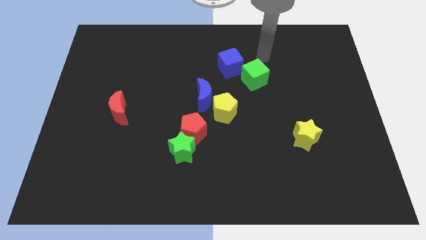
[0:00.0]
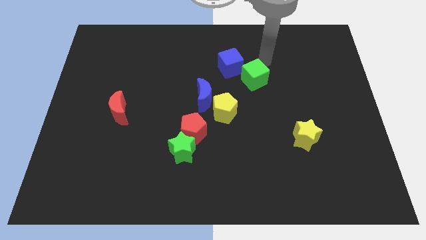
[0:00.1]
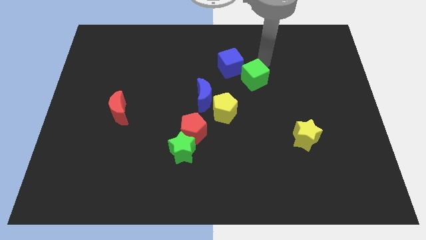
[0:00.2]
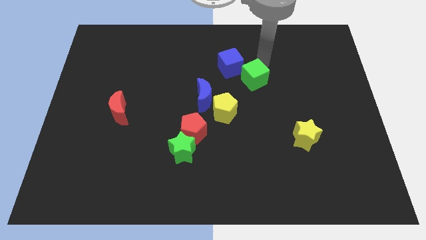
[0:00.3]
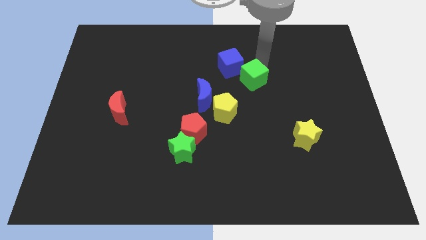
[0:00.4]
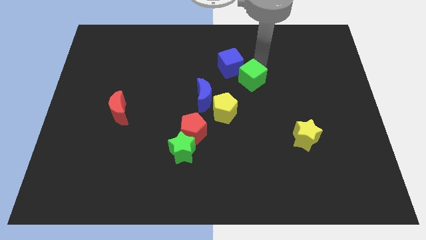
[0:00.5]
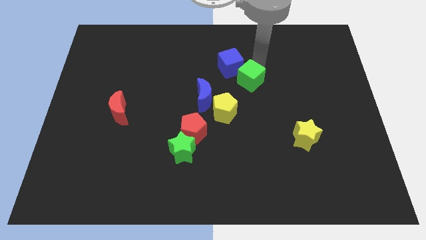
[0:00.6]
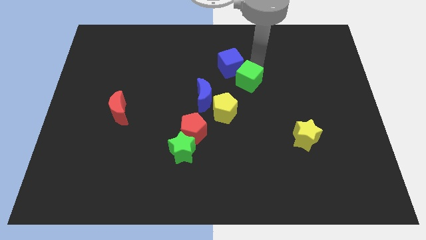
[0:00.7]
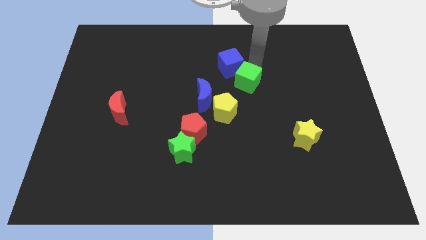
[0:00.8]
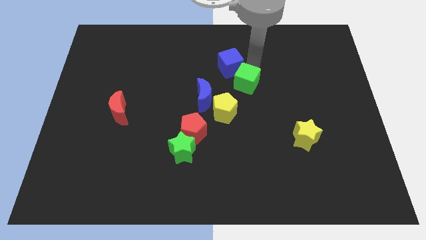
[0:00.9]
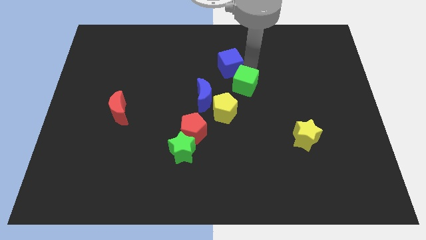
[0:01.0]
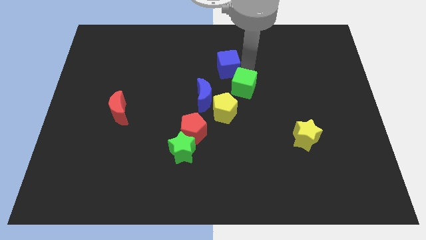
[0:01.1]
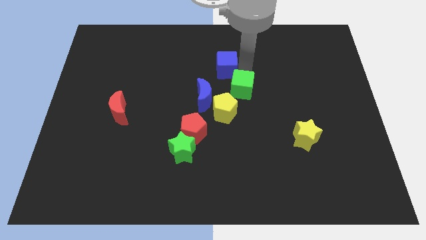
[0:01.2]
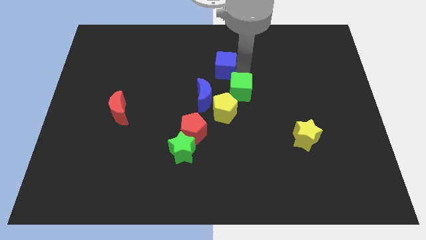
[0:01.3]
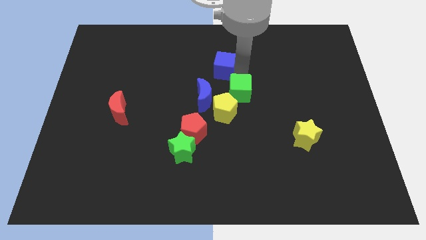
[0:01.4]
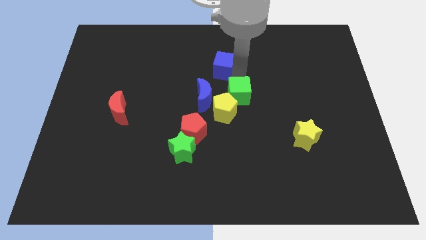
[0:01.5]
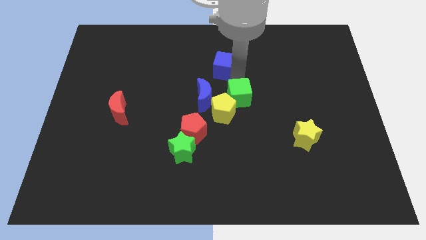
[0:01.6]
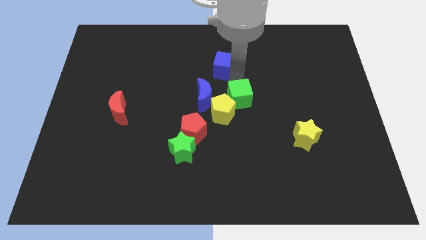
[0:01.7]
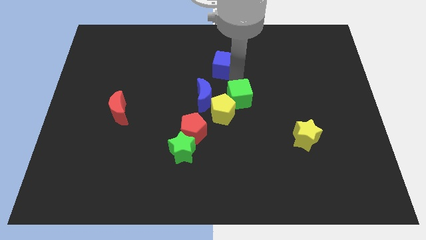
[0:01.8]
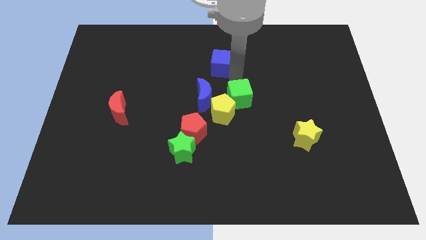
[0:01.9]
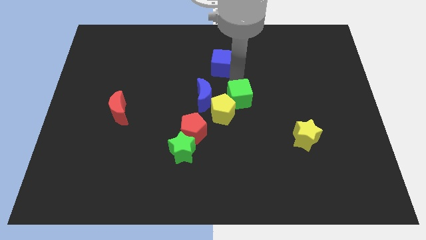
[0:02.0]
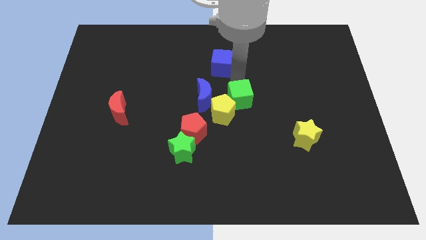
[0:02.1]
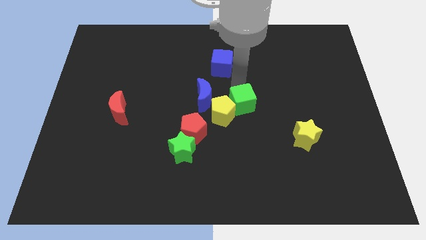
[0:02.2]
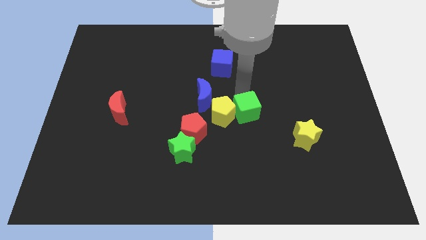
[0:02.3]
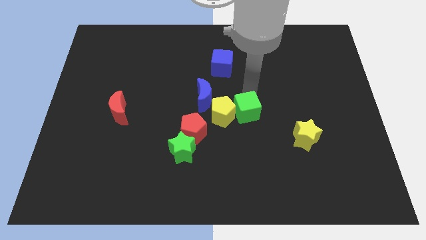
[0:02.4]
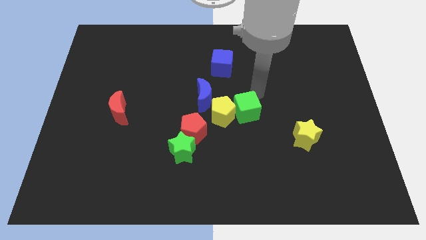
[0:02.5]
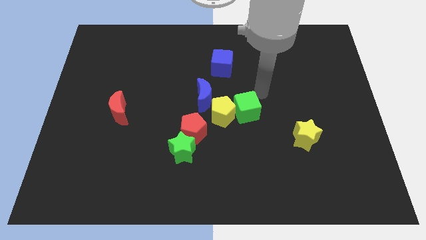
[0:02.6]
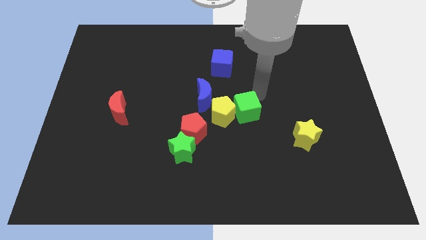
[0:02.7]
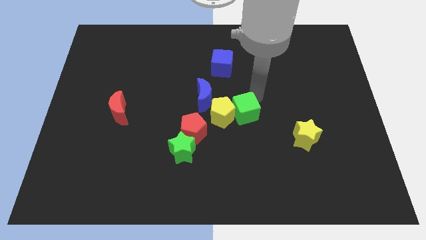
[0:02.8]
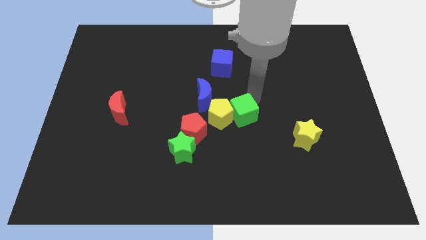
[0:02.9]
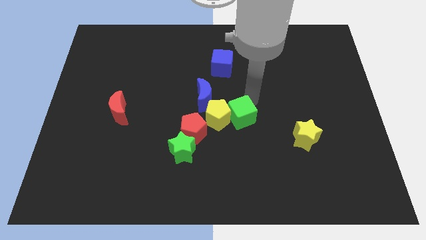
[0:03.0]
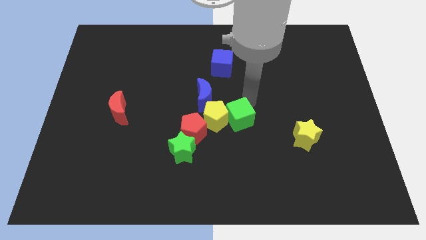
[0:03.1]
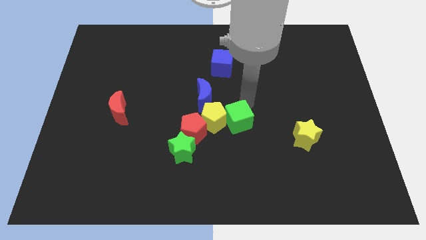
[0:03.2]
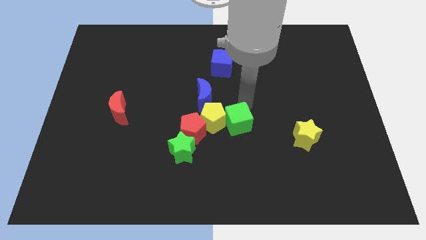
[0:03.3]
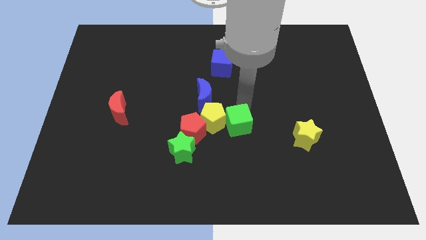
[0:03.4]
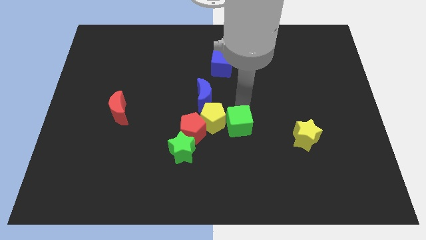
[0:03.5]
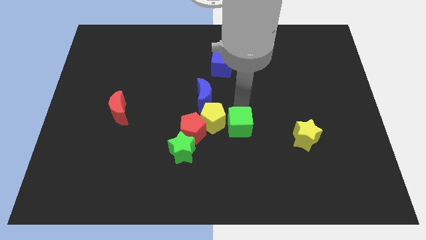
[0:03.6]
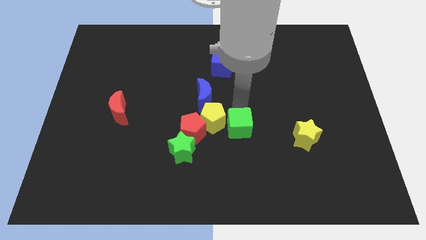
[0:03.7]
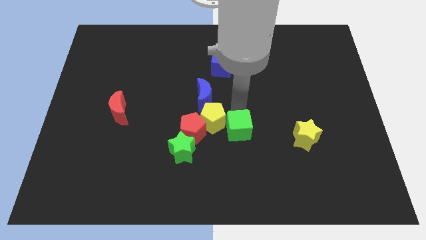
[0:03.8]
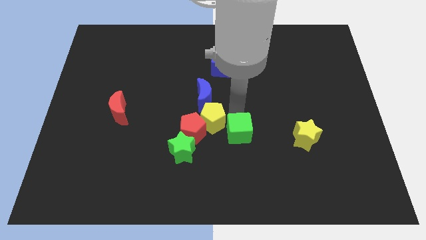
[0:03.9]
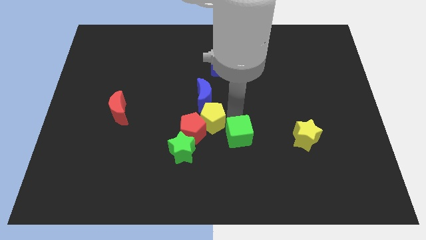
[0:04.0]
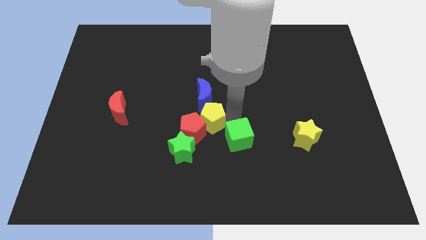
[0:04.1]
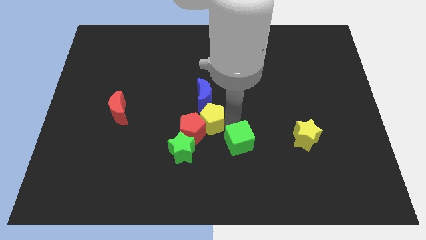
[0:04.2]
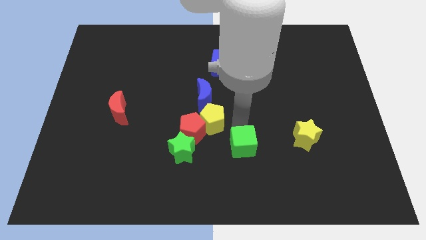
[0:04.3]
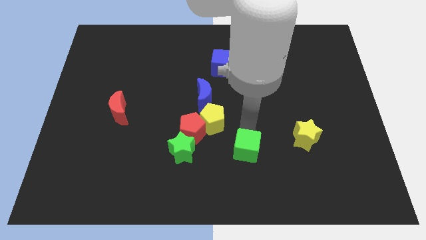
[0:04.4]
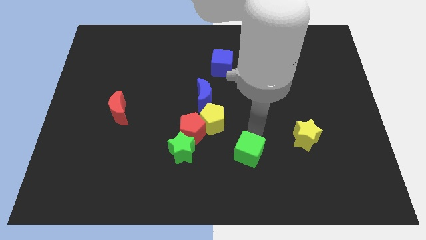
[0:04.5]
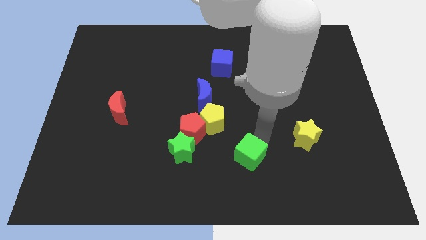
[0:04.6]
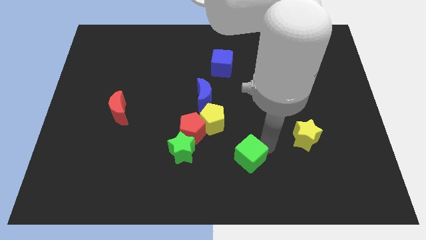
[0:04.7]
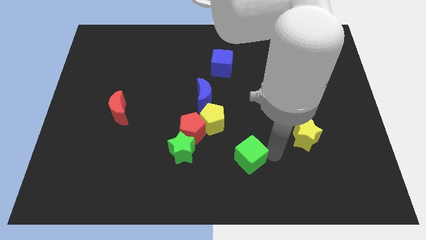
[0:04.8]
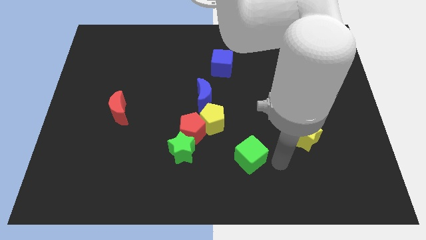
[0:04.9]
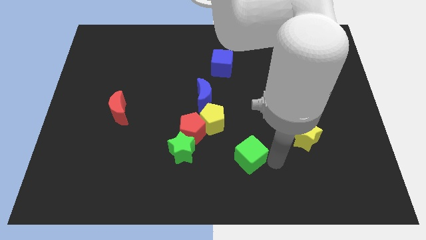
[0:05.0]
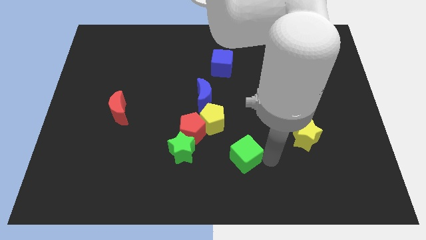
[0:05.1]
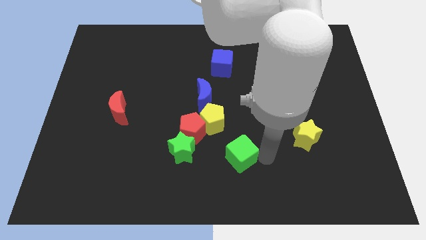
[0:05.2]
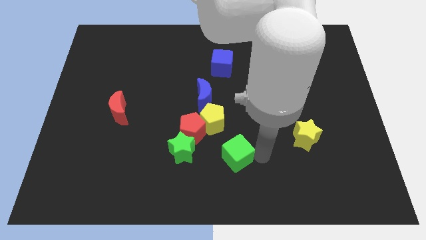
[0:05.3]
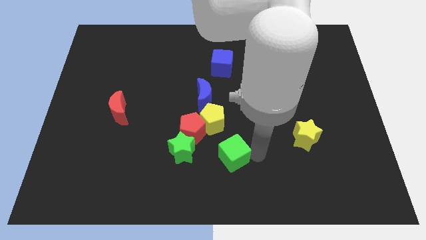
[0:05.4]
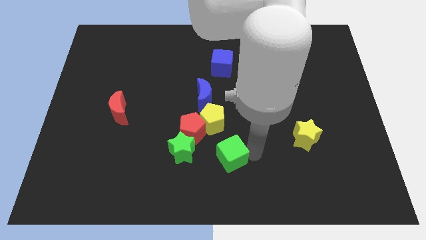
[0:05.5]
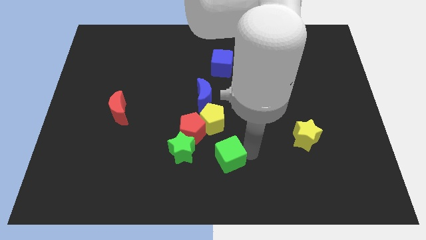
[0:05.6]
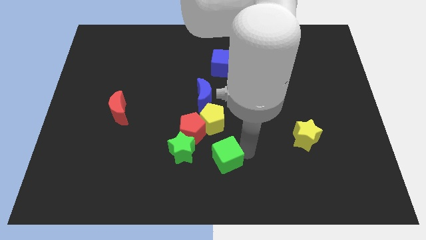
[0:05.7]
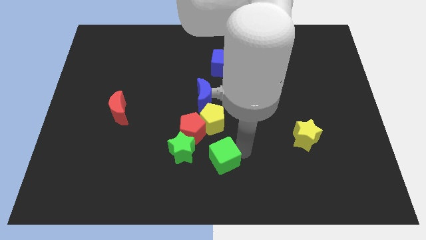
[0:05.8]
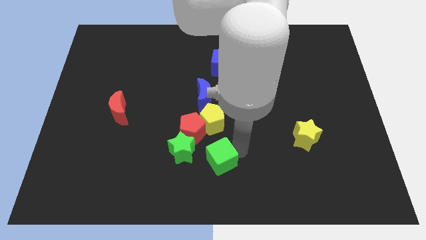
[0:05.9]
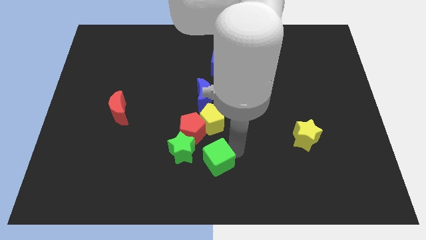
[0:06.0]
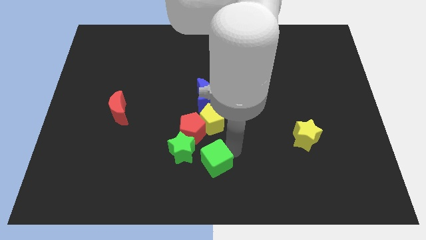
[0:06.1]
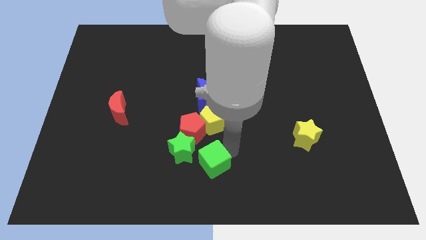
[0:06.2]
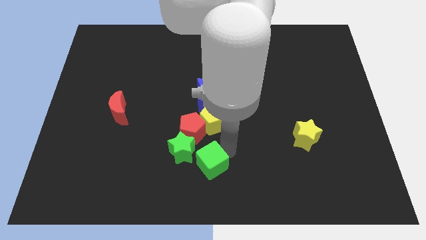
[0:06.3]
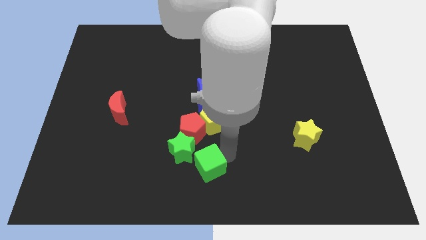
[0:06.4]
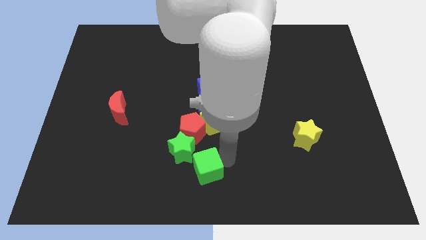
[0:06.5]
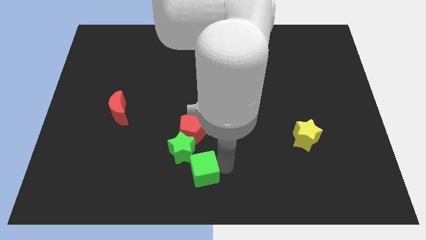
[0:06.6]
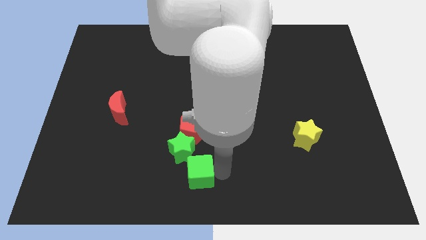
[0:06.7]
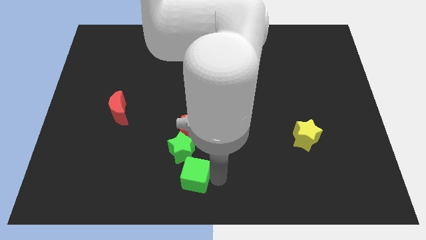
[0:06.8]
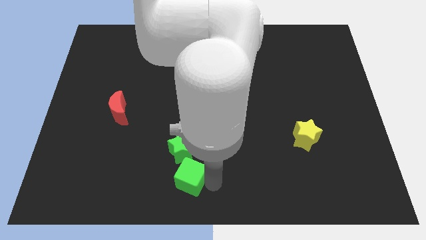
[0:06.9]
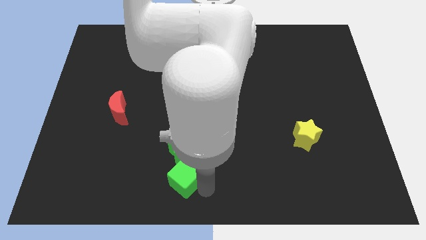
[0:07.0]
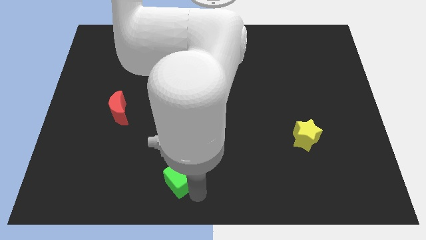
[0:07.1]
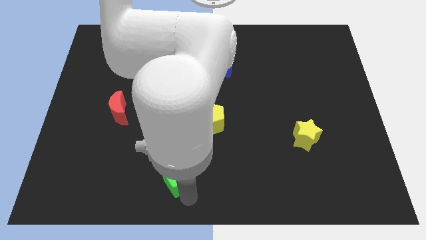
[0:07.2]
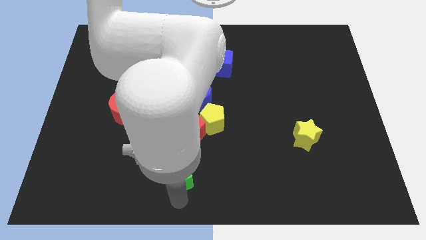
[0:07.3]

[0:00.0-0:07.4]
move the green cube towards the green star
